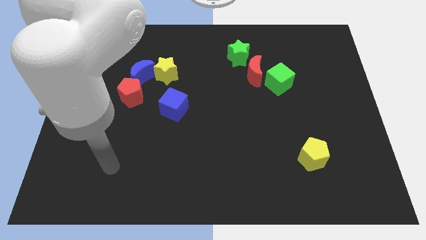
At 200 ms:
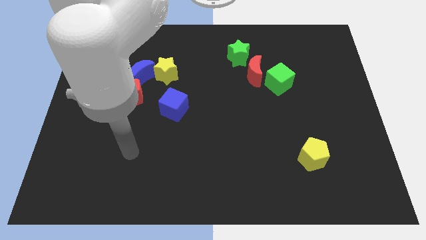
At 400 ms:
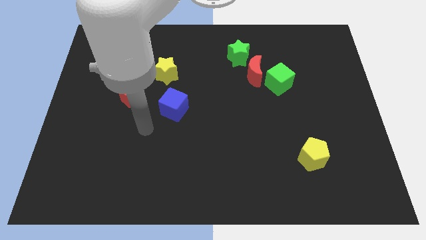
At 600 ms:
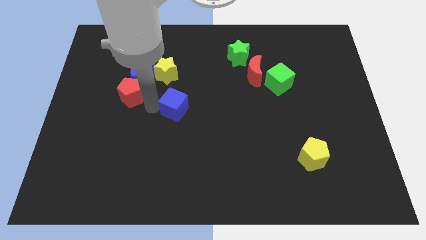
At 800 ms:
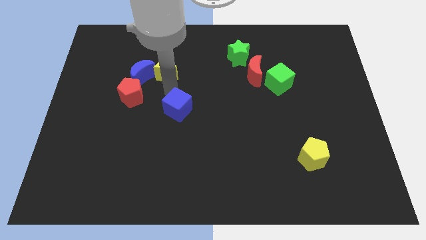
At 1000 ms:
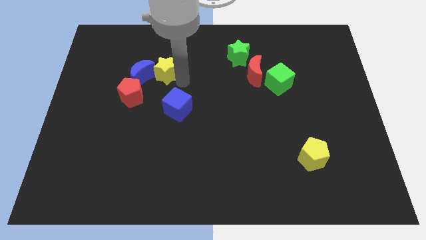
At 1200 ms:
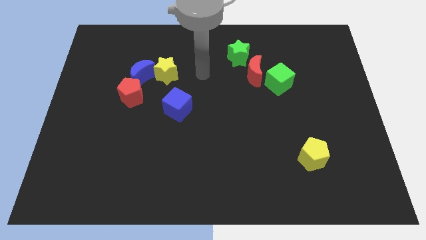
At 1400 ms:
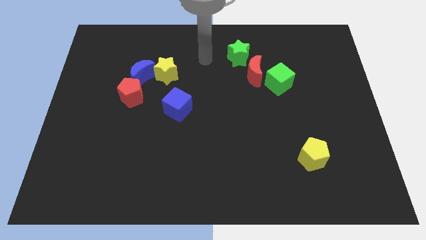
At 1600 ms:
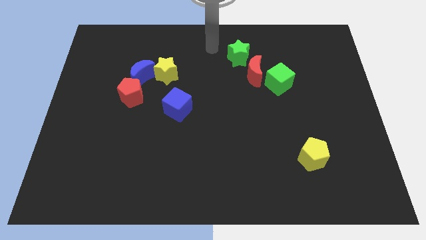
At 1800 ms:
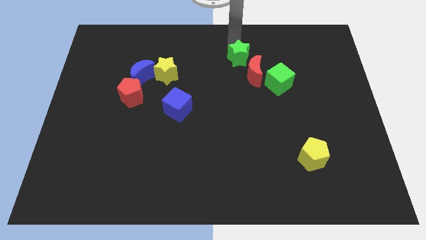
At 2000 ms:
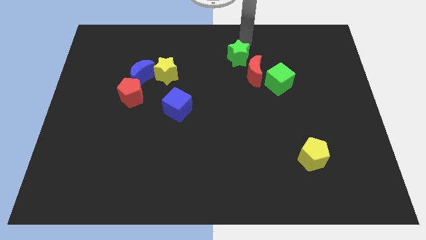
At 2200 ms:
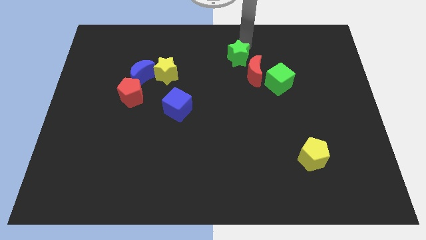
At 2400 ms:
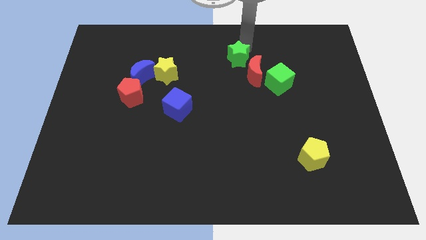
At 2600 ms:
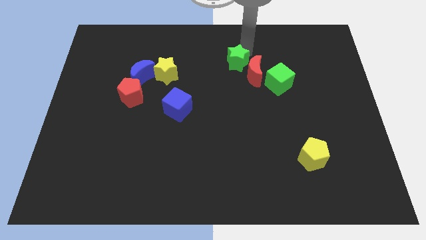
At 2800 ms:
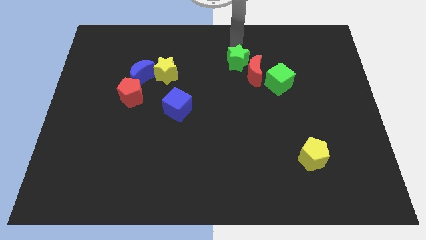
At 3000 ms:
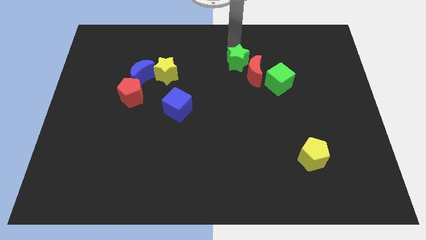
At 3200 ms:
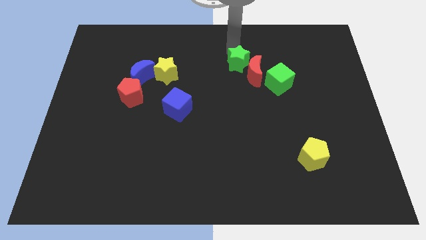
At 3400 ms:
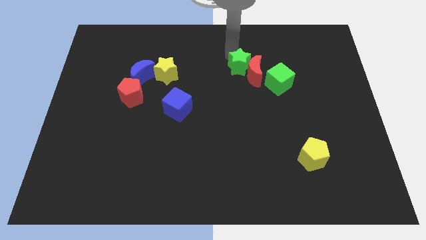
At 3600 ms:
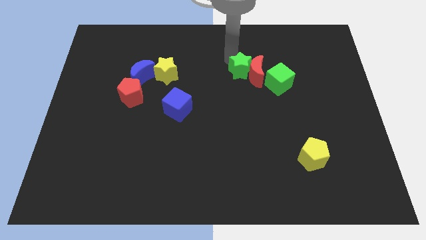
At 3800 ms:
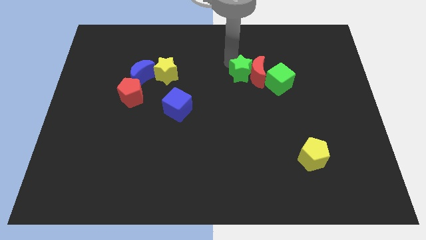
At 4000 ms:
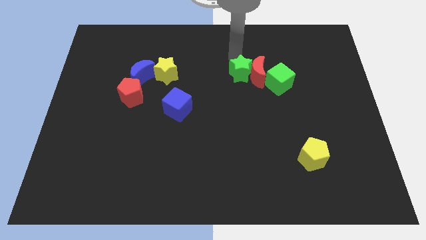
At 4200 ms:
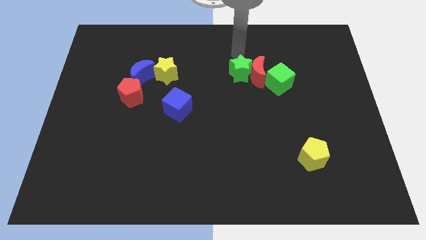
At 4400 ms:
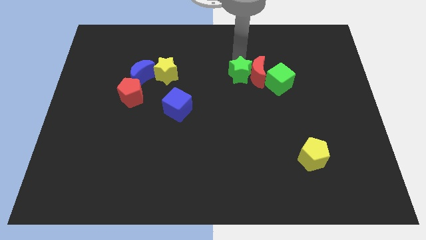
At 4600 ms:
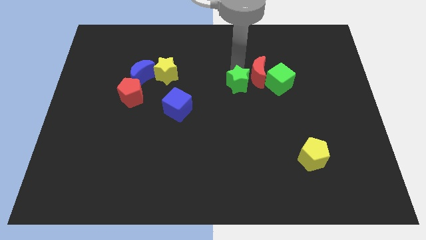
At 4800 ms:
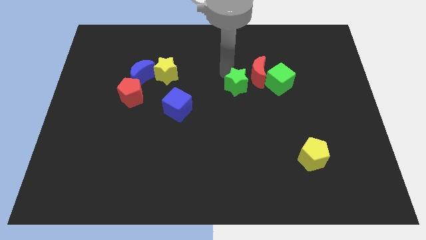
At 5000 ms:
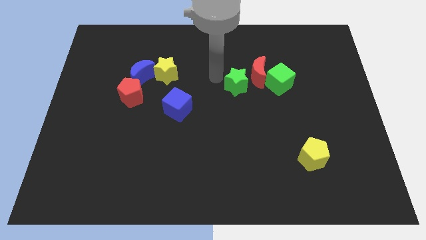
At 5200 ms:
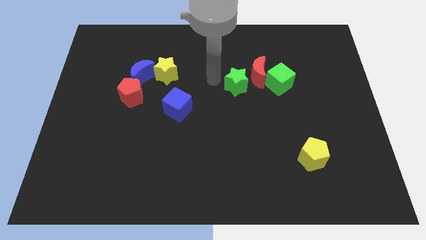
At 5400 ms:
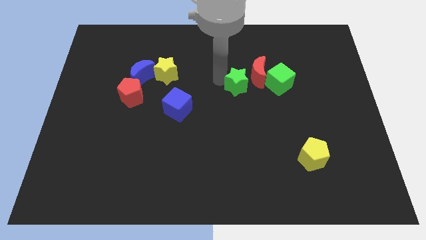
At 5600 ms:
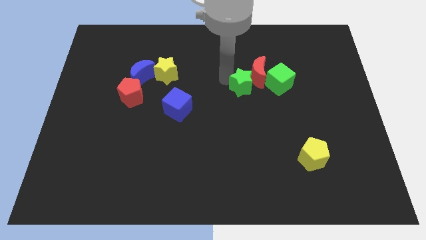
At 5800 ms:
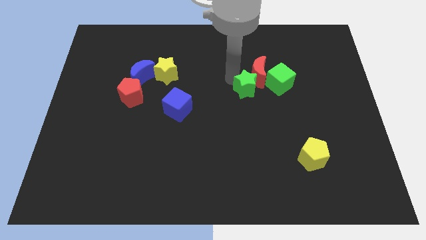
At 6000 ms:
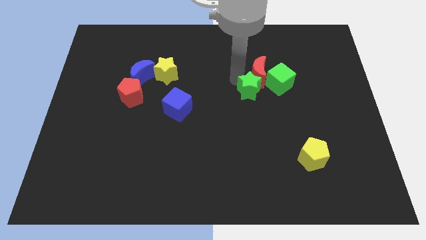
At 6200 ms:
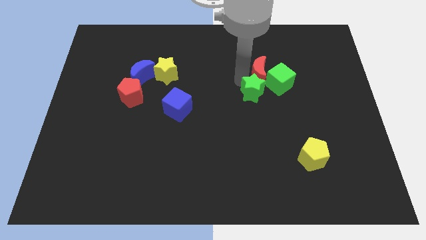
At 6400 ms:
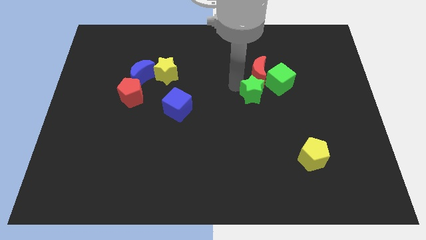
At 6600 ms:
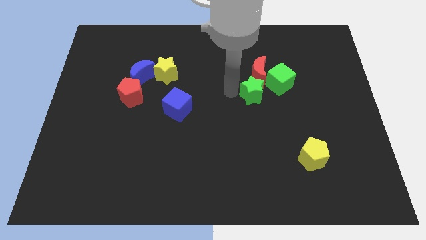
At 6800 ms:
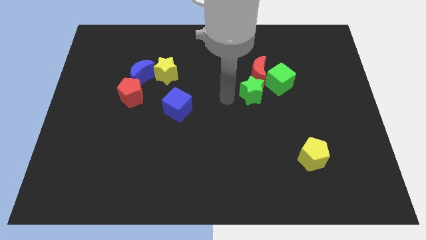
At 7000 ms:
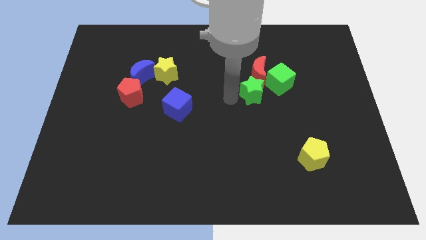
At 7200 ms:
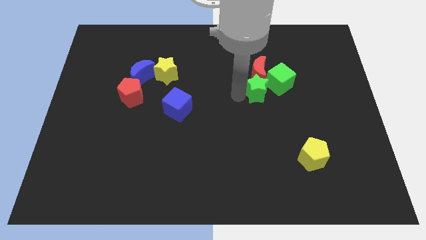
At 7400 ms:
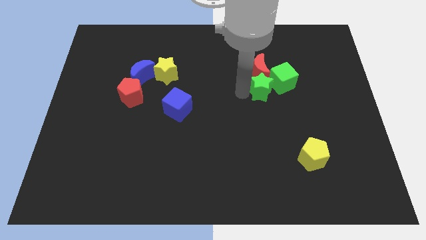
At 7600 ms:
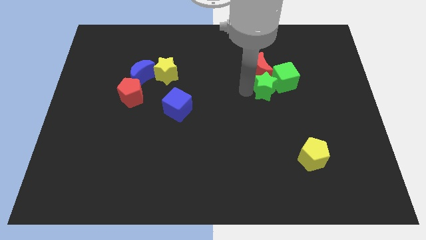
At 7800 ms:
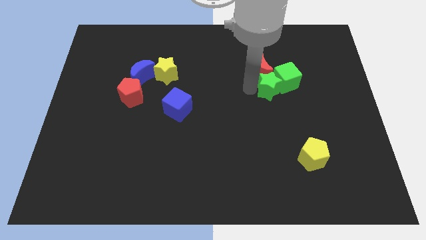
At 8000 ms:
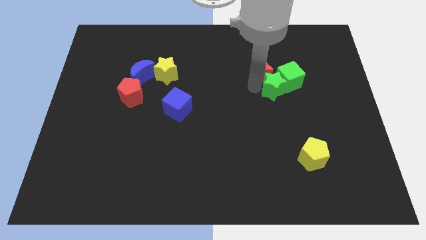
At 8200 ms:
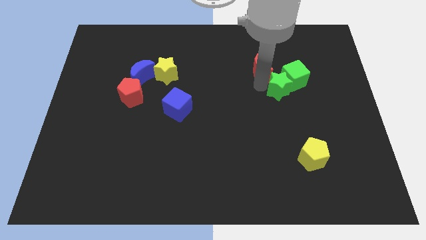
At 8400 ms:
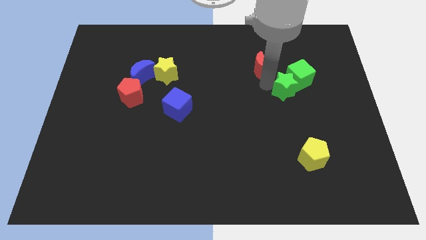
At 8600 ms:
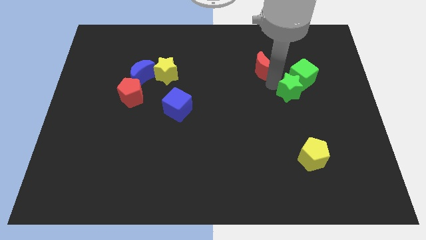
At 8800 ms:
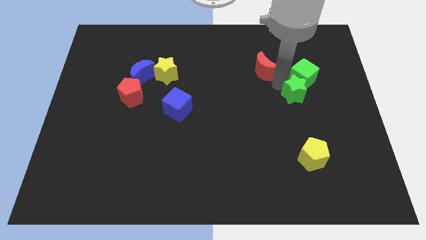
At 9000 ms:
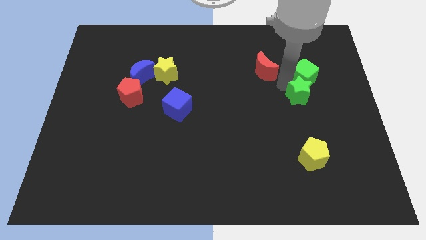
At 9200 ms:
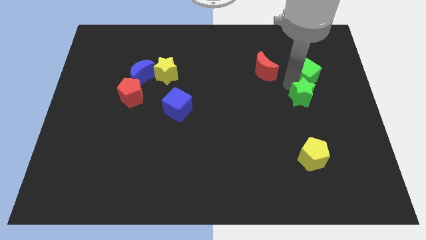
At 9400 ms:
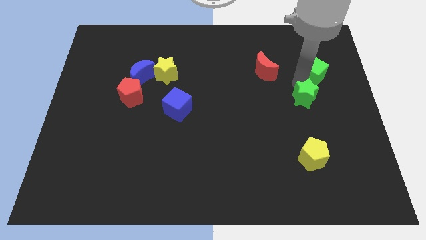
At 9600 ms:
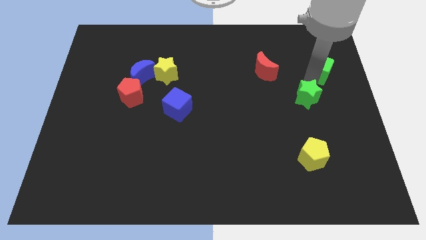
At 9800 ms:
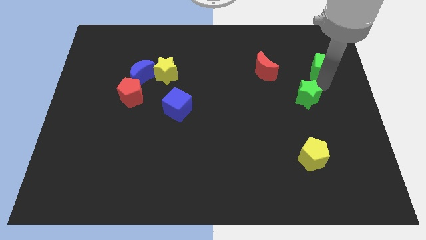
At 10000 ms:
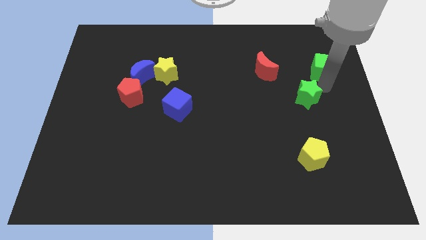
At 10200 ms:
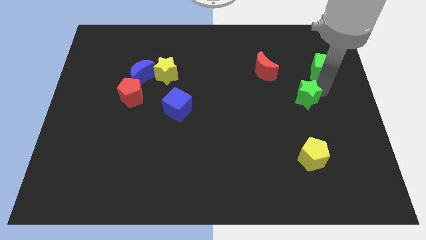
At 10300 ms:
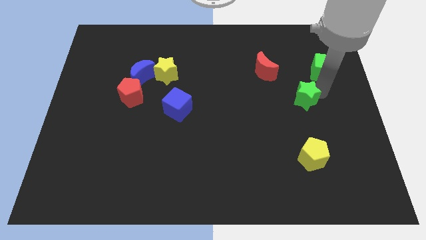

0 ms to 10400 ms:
slide the green star above the yellow pentagon

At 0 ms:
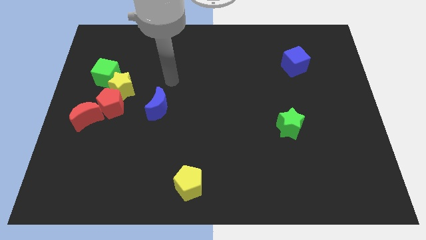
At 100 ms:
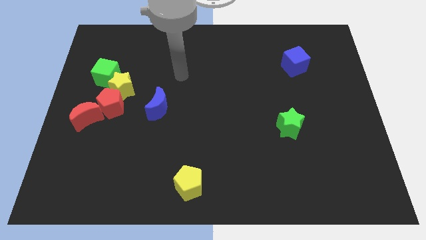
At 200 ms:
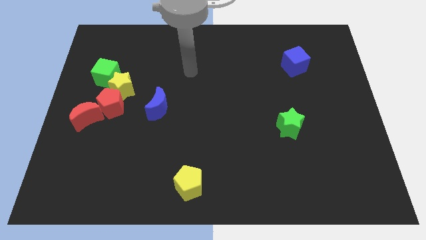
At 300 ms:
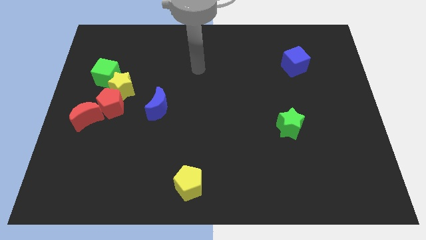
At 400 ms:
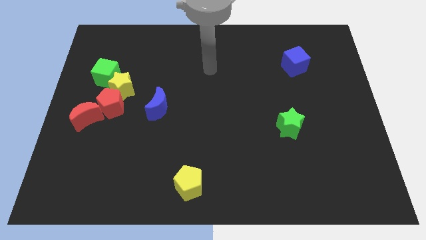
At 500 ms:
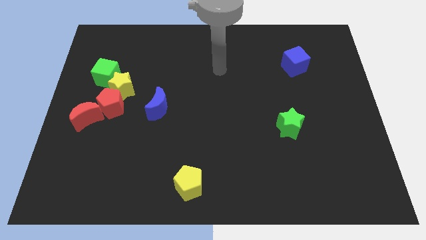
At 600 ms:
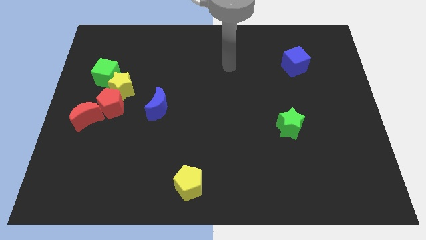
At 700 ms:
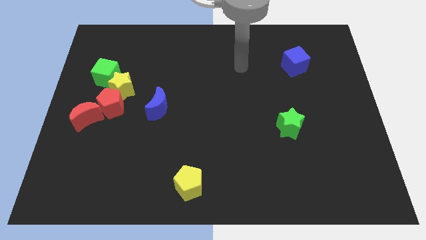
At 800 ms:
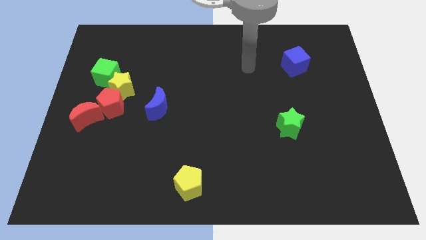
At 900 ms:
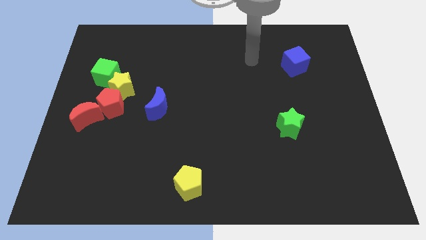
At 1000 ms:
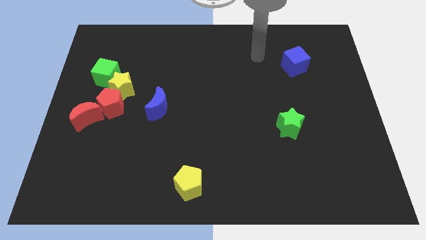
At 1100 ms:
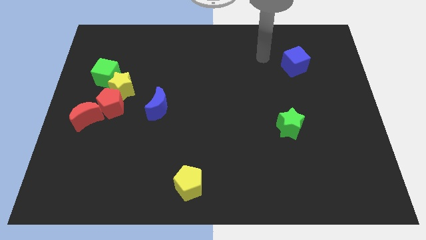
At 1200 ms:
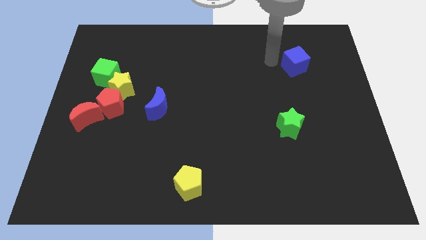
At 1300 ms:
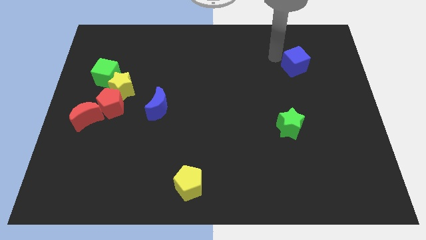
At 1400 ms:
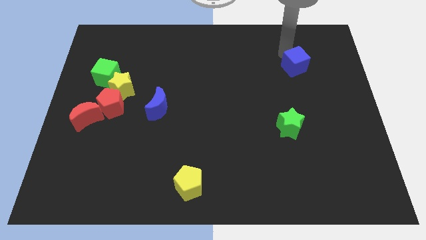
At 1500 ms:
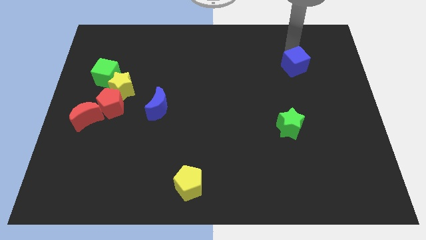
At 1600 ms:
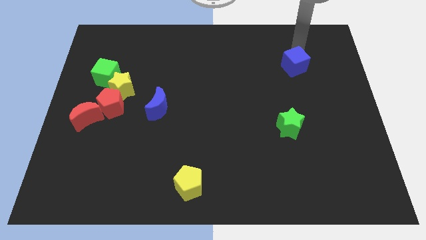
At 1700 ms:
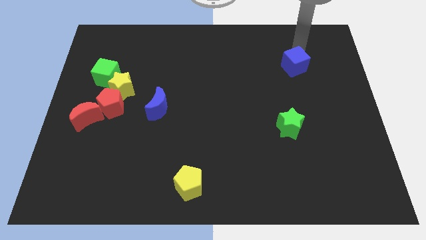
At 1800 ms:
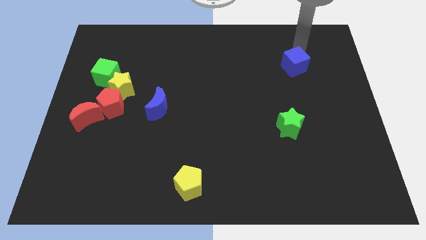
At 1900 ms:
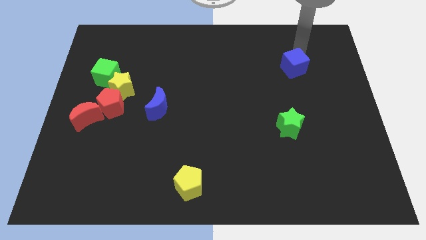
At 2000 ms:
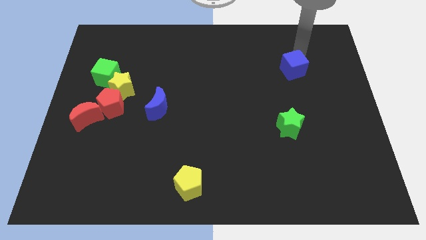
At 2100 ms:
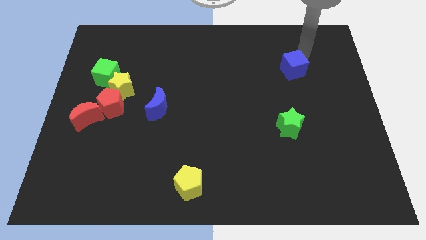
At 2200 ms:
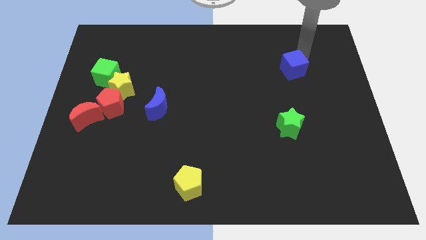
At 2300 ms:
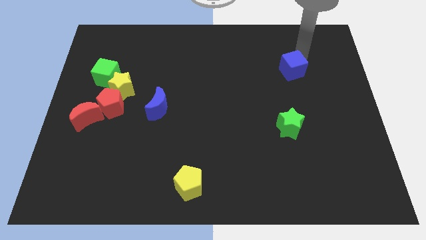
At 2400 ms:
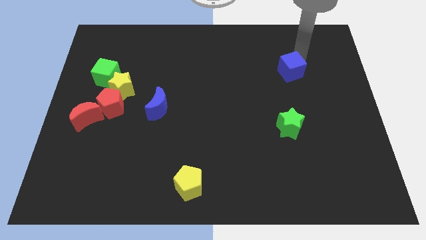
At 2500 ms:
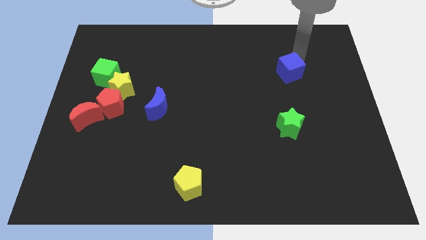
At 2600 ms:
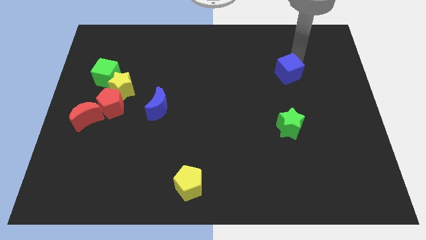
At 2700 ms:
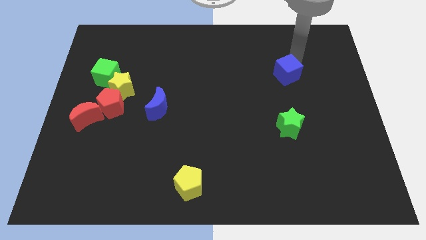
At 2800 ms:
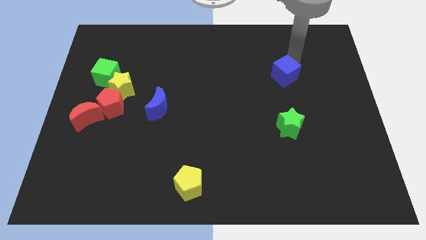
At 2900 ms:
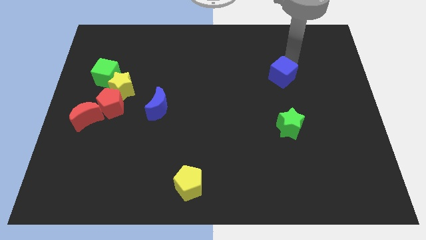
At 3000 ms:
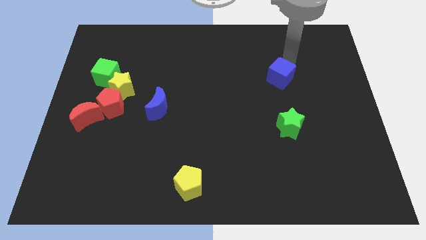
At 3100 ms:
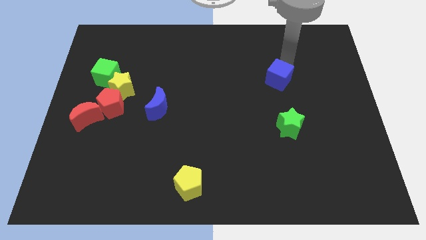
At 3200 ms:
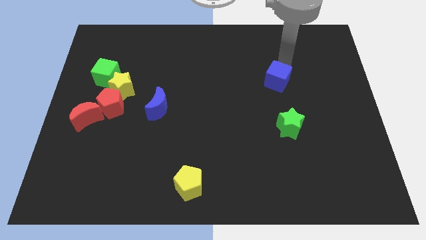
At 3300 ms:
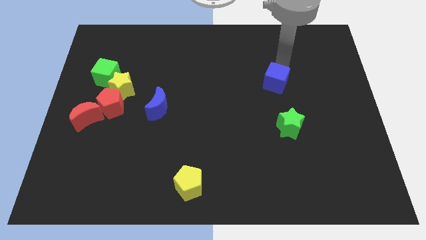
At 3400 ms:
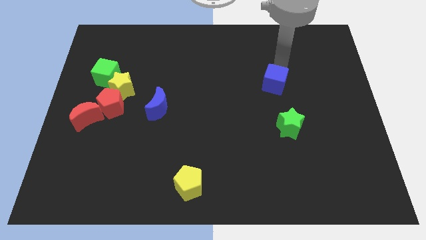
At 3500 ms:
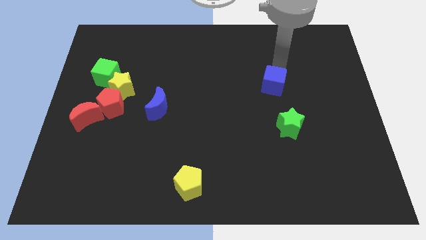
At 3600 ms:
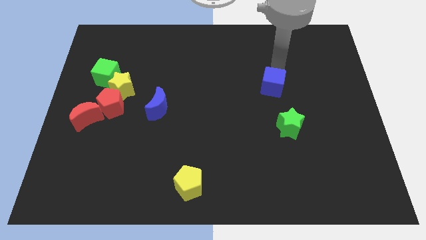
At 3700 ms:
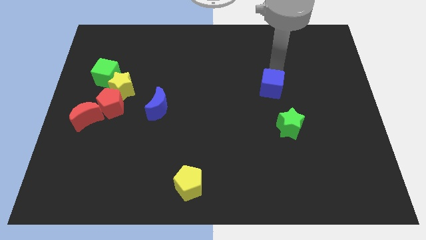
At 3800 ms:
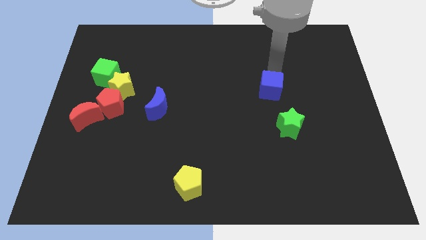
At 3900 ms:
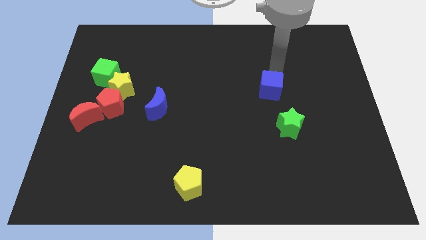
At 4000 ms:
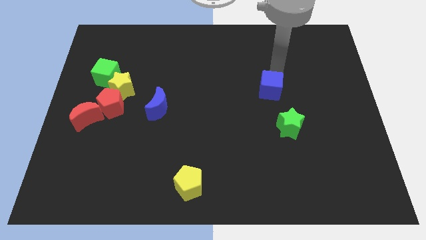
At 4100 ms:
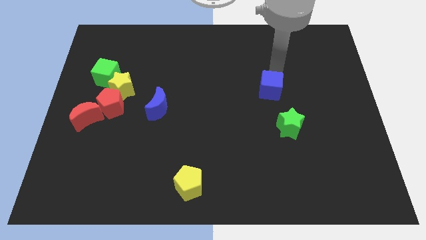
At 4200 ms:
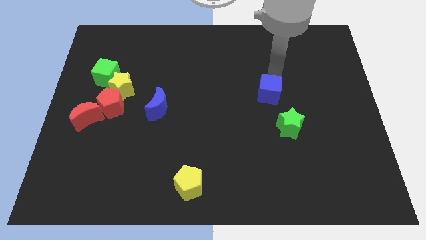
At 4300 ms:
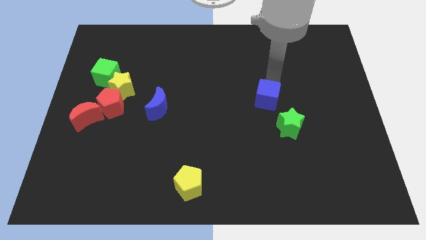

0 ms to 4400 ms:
slide the blue cube diagonally up and to the left of the green star
